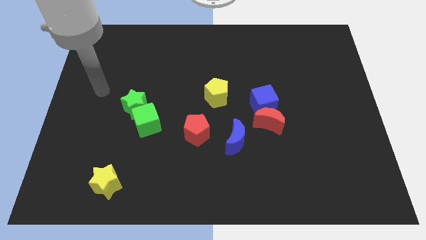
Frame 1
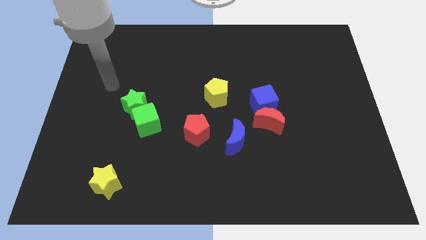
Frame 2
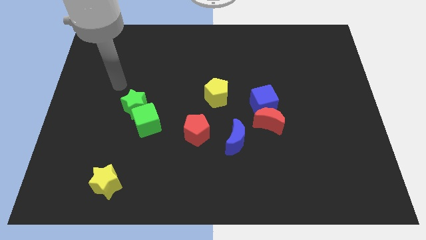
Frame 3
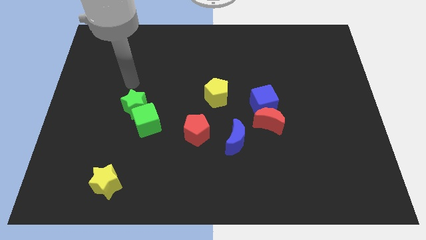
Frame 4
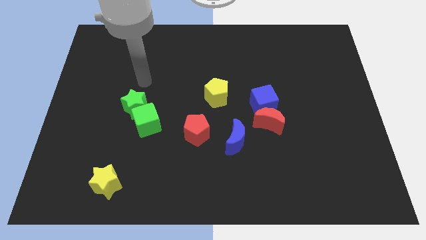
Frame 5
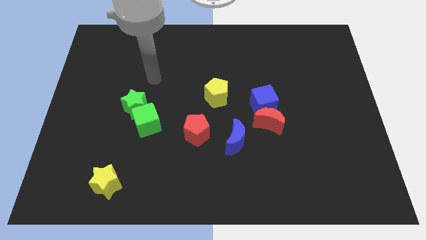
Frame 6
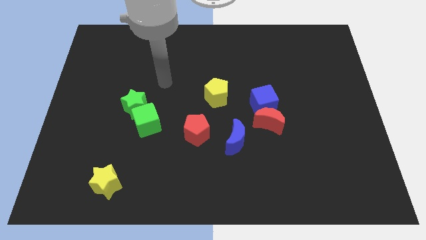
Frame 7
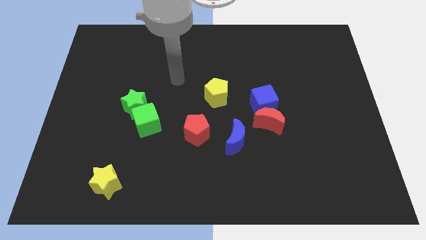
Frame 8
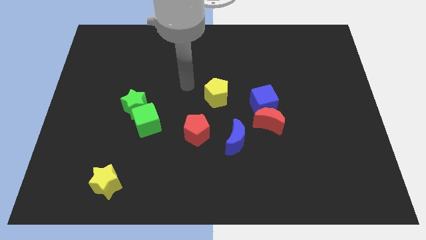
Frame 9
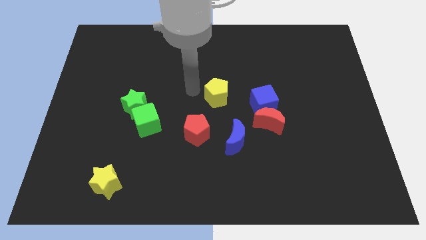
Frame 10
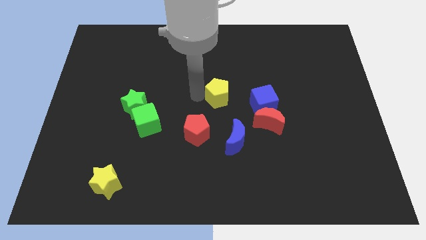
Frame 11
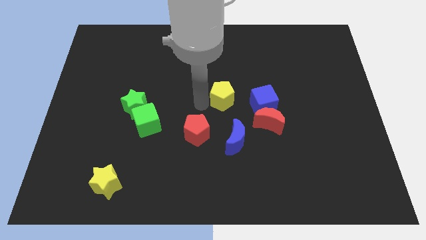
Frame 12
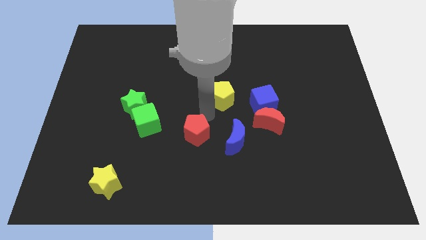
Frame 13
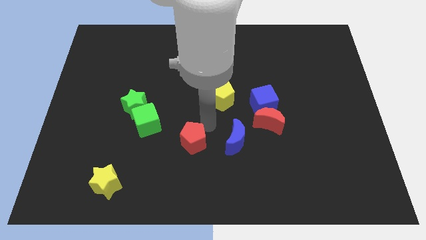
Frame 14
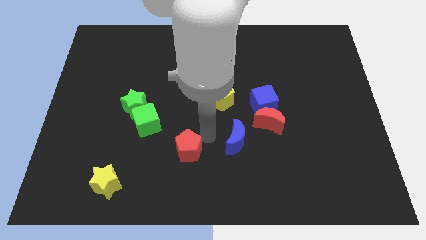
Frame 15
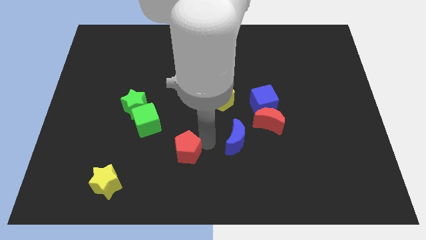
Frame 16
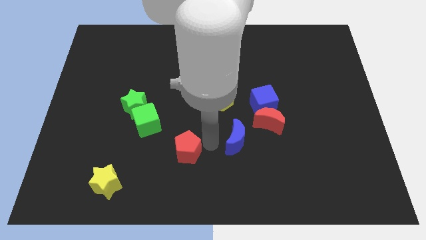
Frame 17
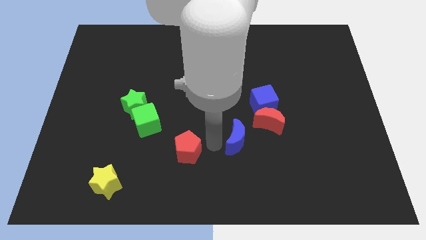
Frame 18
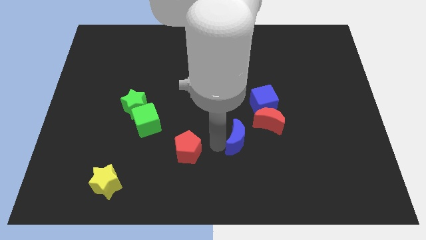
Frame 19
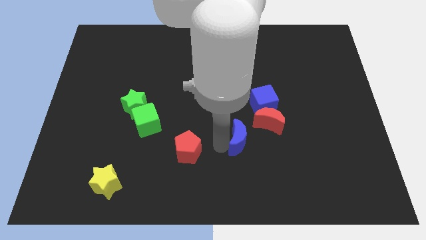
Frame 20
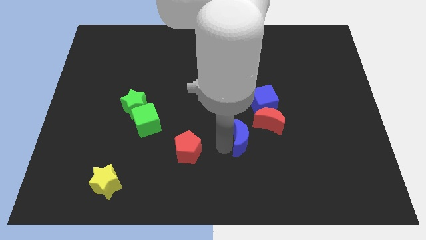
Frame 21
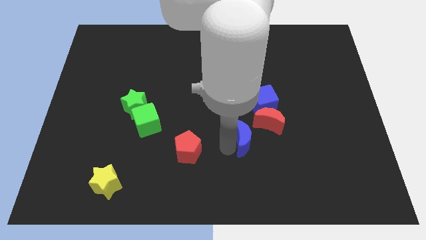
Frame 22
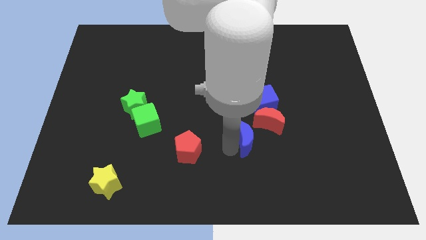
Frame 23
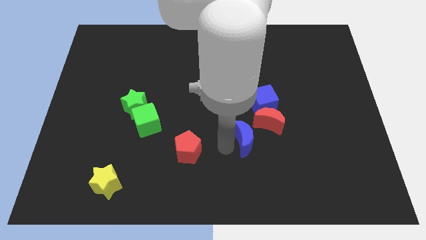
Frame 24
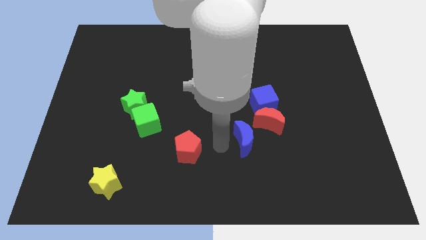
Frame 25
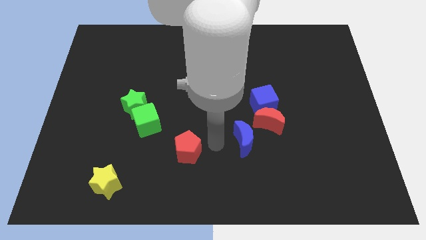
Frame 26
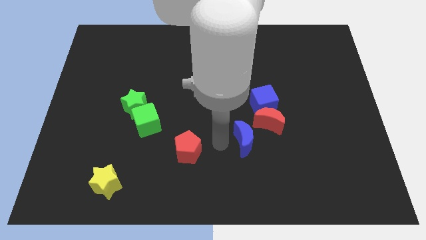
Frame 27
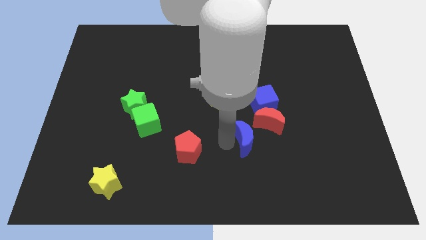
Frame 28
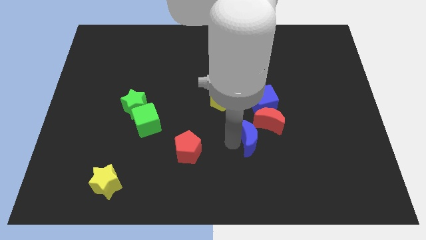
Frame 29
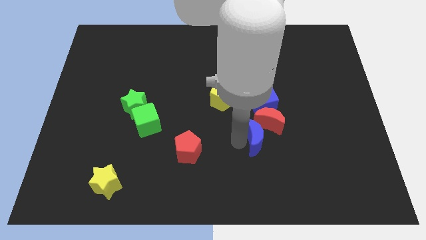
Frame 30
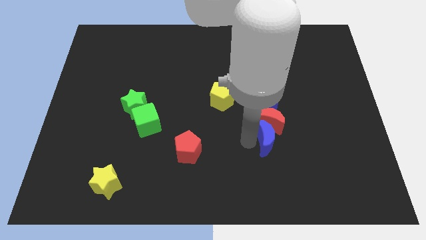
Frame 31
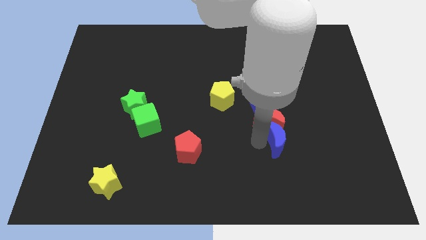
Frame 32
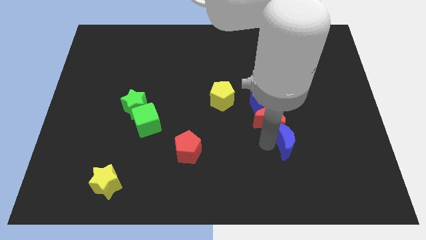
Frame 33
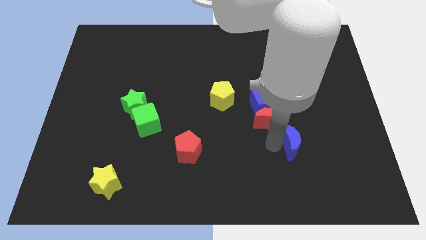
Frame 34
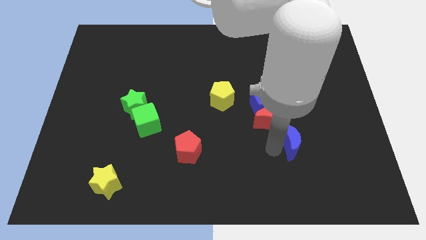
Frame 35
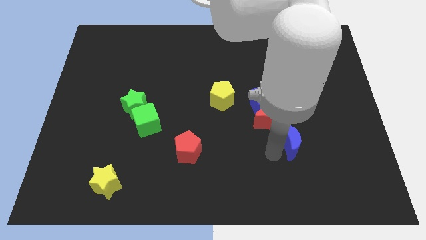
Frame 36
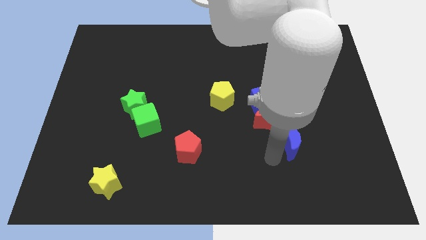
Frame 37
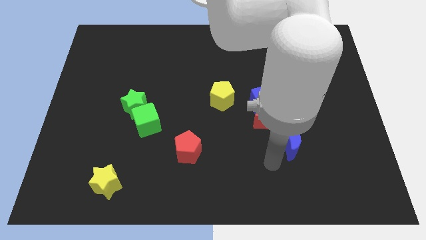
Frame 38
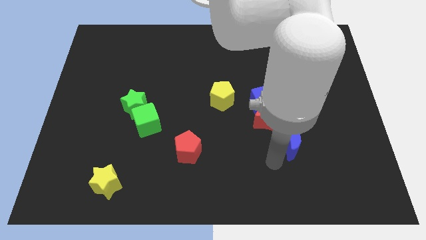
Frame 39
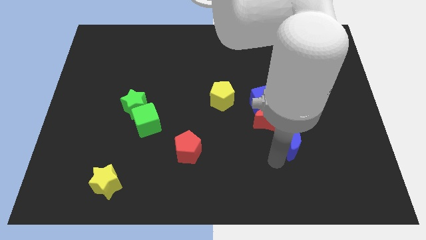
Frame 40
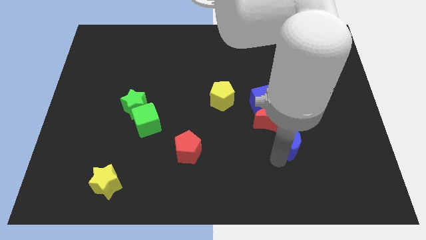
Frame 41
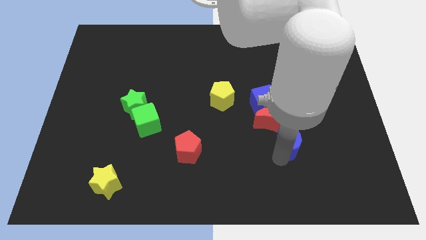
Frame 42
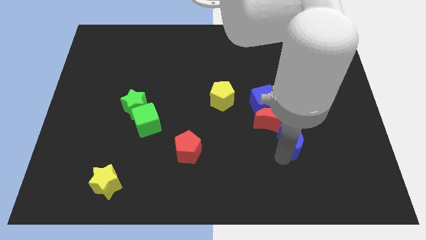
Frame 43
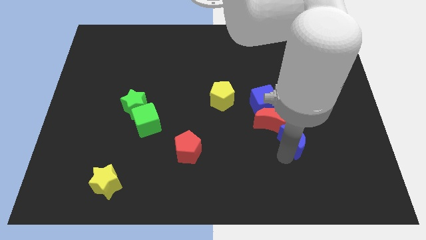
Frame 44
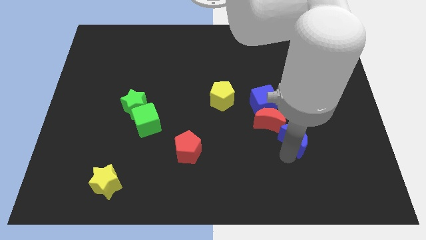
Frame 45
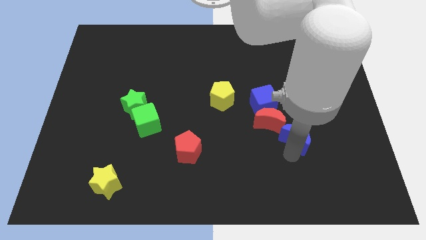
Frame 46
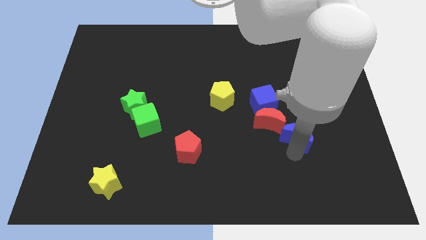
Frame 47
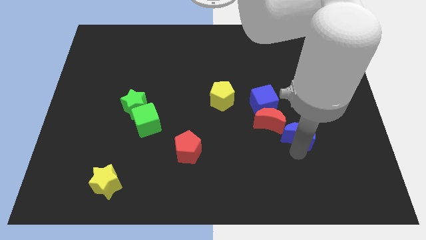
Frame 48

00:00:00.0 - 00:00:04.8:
push the blue moon upwards and to the right a bit

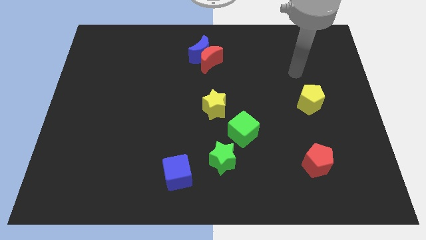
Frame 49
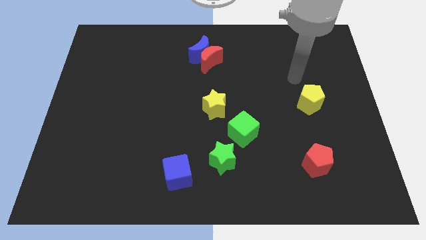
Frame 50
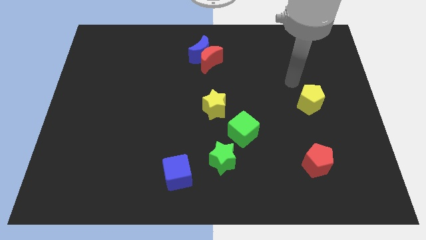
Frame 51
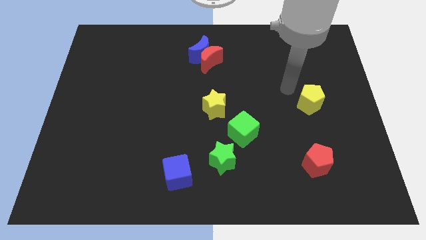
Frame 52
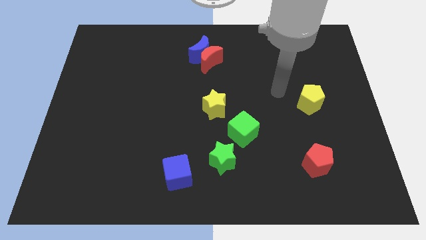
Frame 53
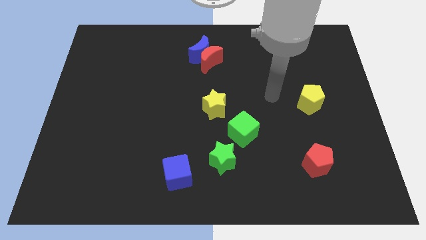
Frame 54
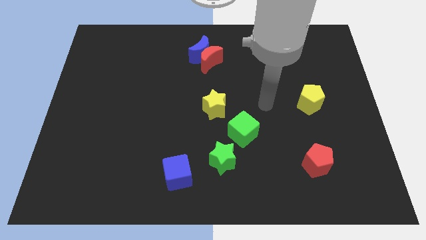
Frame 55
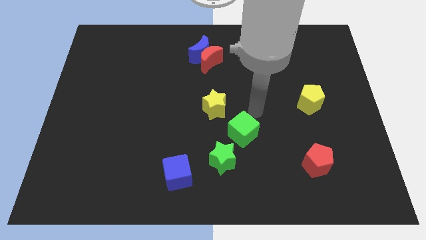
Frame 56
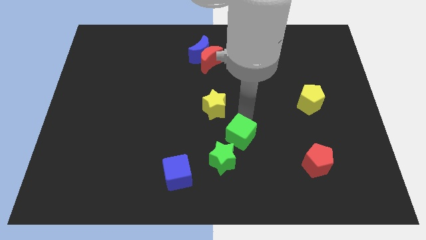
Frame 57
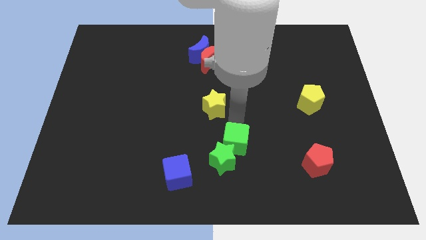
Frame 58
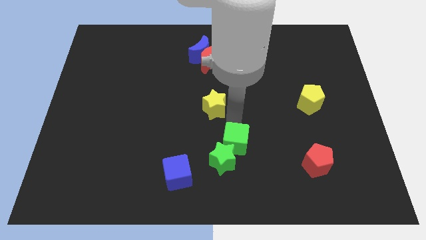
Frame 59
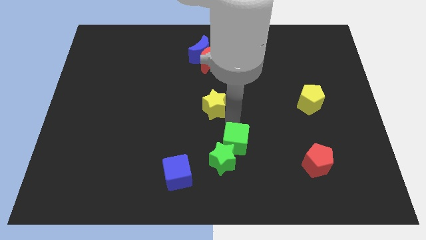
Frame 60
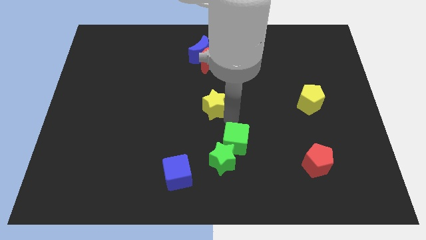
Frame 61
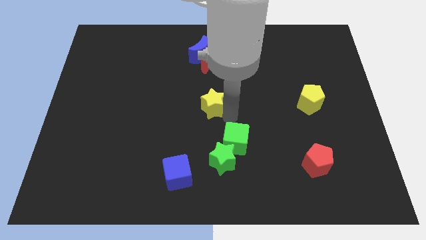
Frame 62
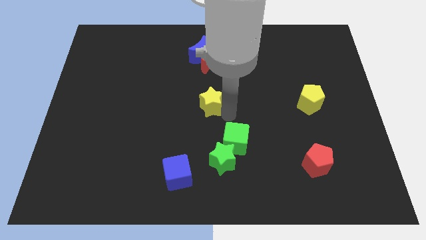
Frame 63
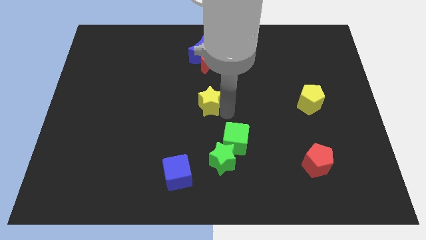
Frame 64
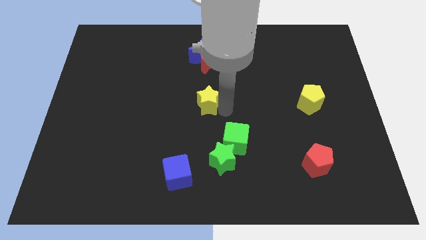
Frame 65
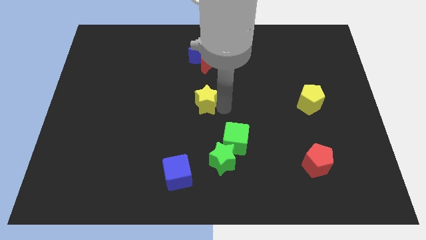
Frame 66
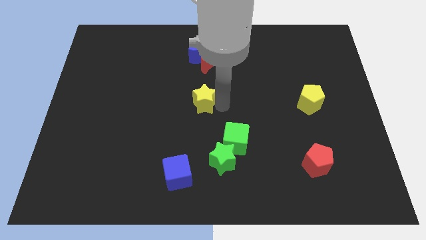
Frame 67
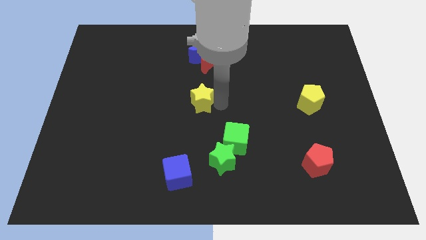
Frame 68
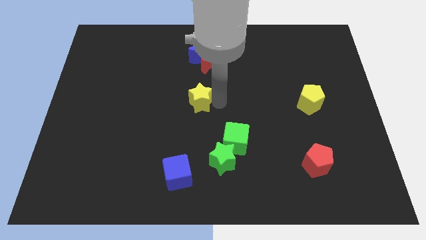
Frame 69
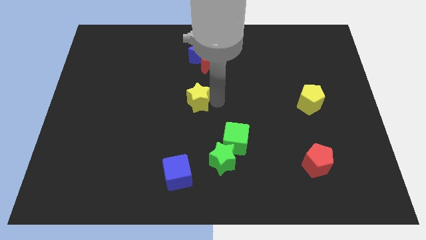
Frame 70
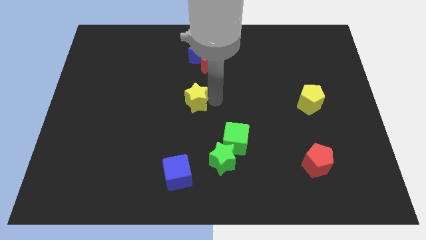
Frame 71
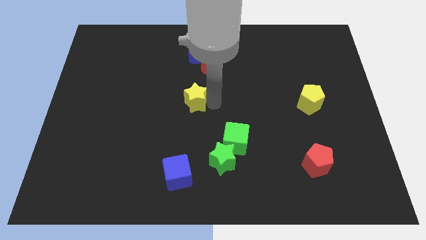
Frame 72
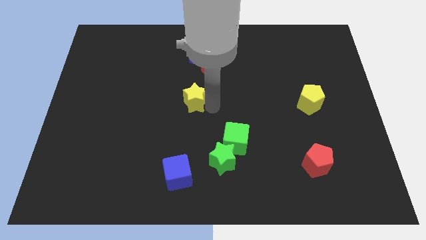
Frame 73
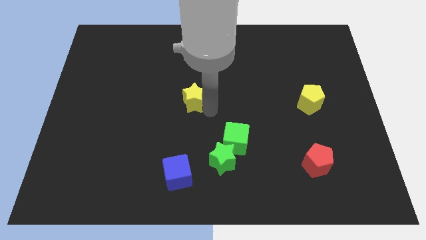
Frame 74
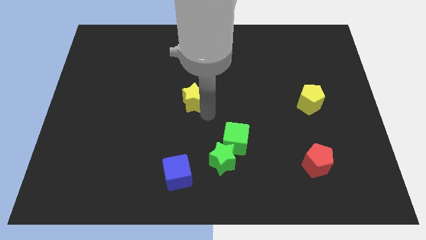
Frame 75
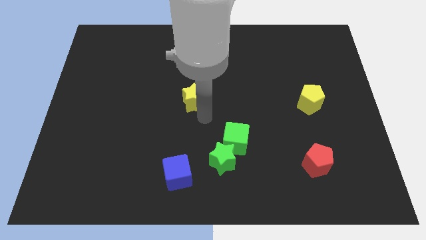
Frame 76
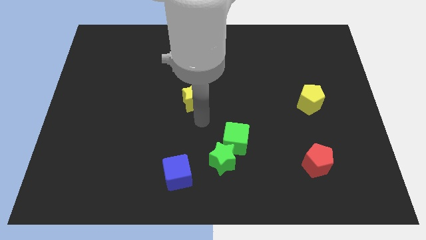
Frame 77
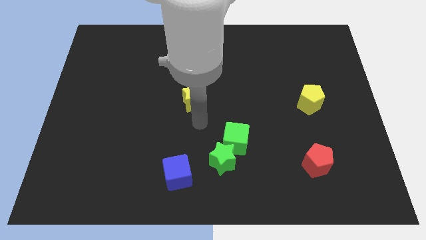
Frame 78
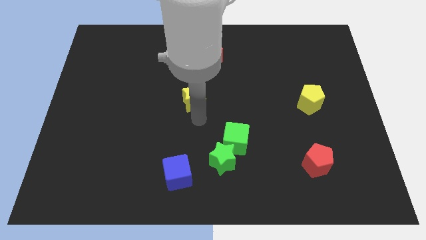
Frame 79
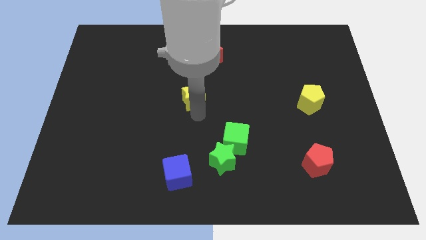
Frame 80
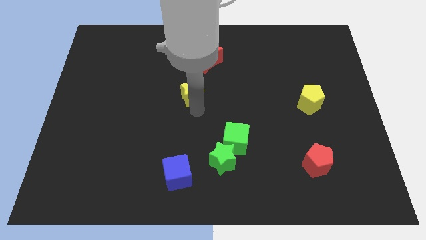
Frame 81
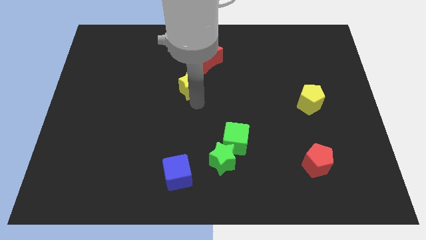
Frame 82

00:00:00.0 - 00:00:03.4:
slightly push the yellow star upwards and left diagonally
